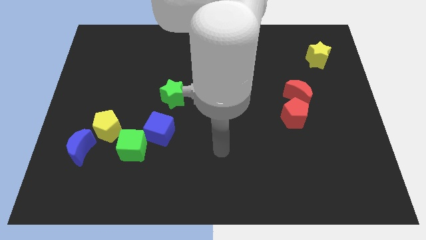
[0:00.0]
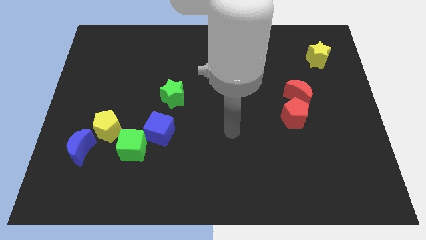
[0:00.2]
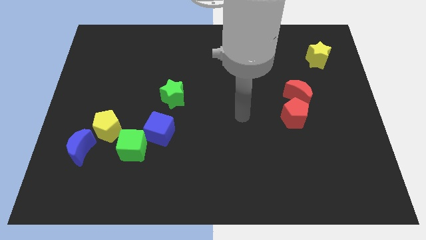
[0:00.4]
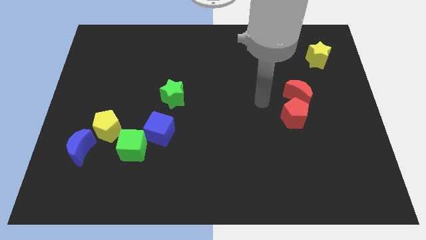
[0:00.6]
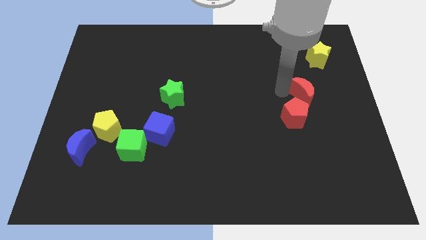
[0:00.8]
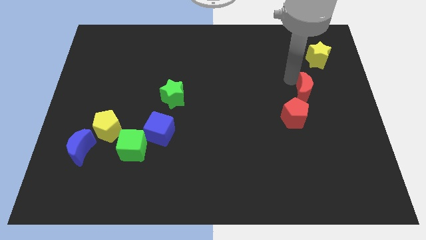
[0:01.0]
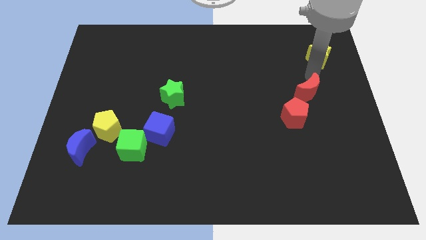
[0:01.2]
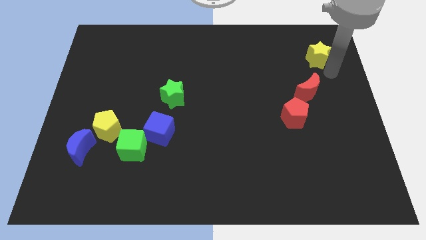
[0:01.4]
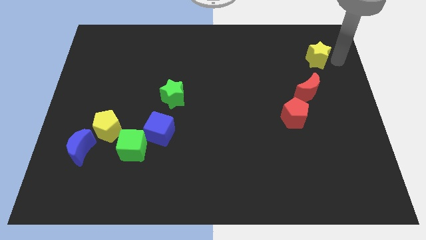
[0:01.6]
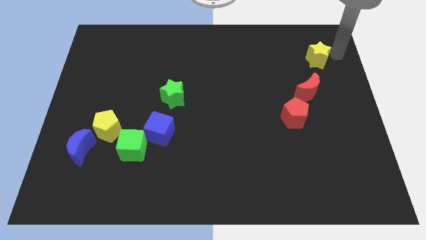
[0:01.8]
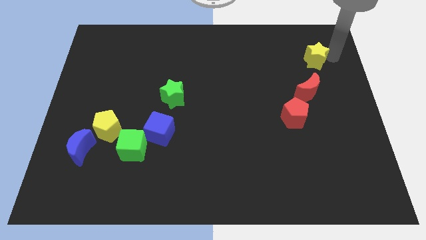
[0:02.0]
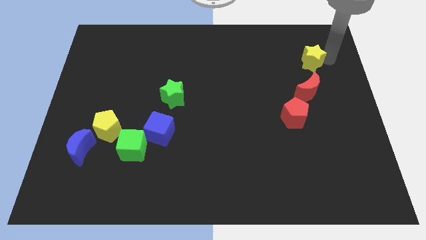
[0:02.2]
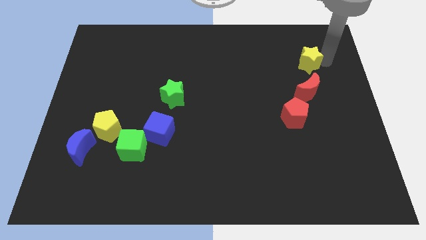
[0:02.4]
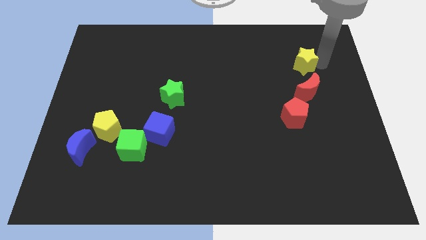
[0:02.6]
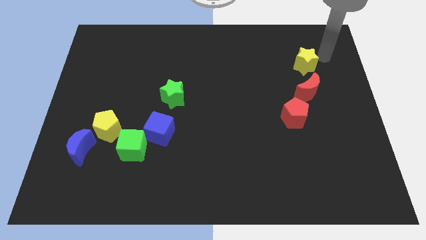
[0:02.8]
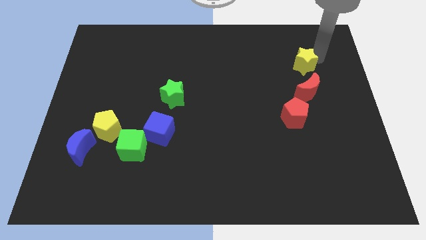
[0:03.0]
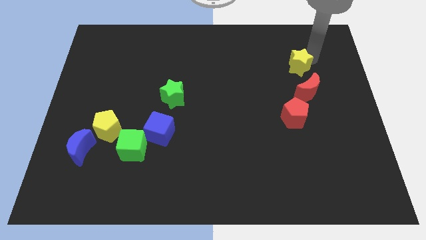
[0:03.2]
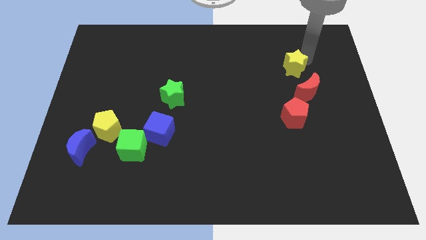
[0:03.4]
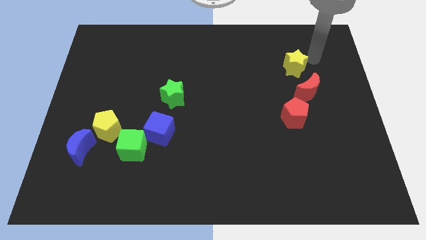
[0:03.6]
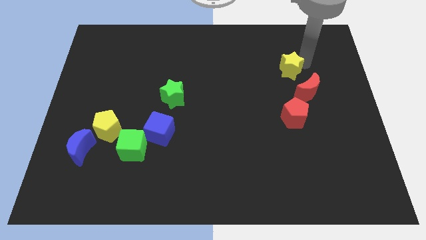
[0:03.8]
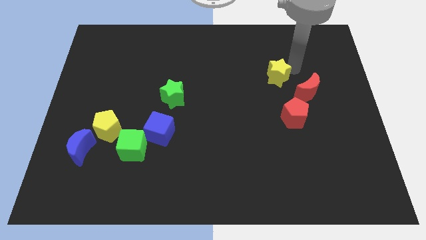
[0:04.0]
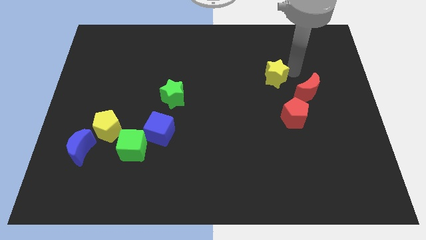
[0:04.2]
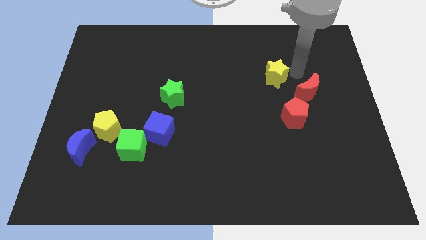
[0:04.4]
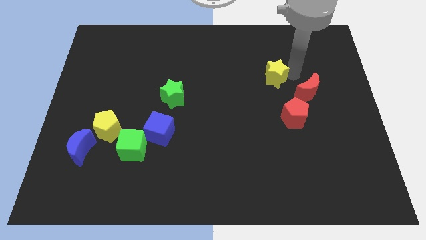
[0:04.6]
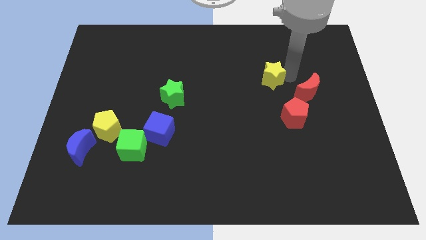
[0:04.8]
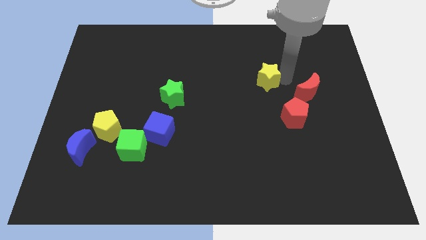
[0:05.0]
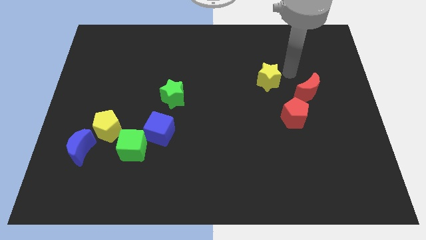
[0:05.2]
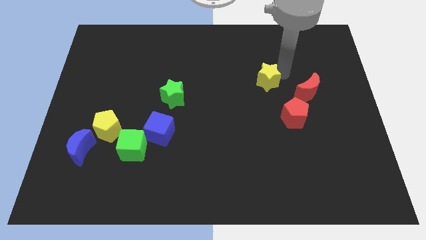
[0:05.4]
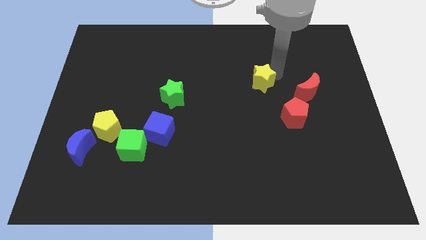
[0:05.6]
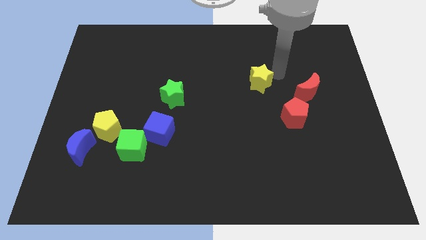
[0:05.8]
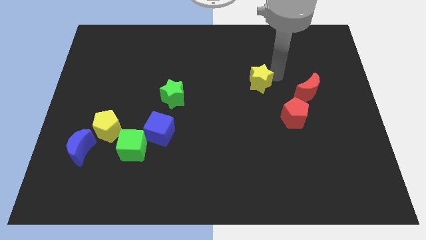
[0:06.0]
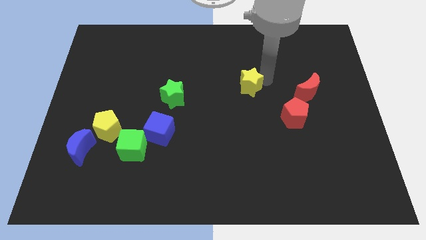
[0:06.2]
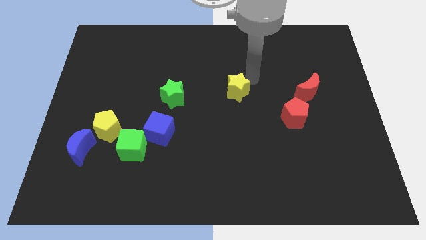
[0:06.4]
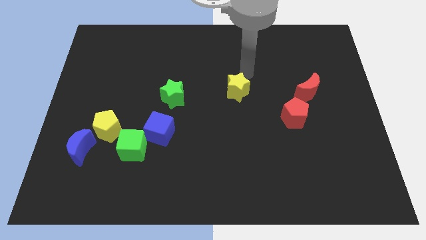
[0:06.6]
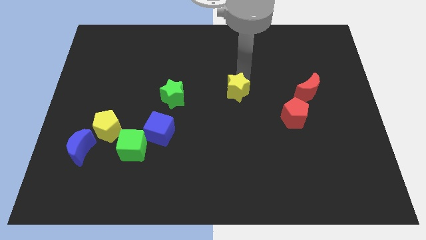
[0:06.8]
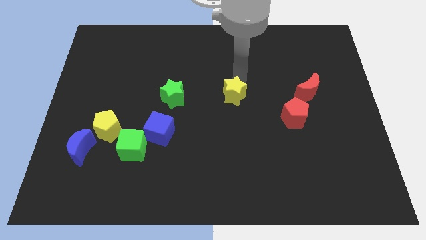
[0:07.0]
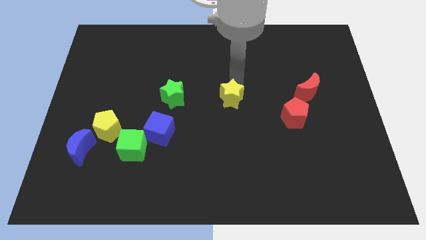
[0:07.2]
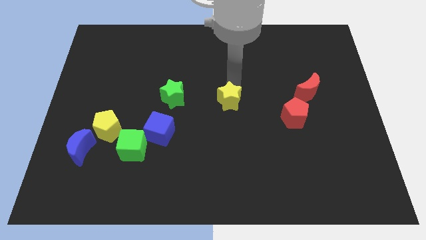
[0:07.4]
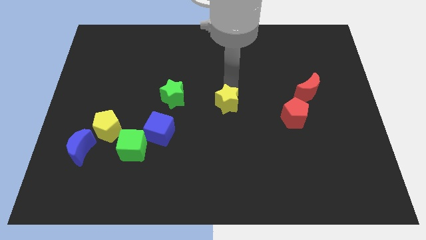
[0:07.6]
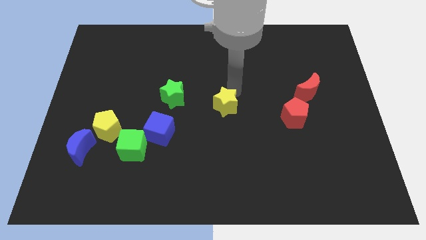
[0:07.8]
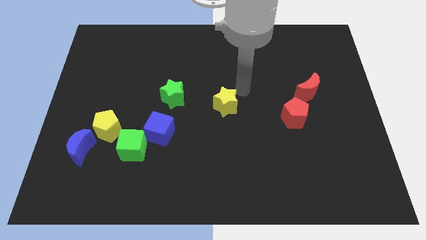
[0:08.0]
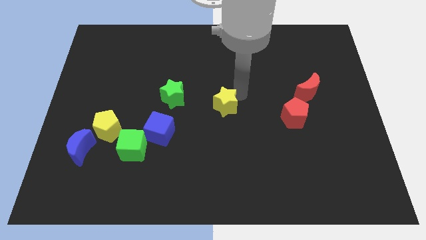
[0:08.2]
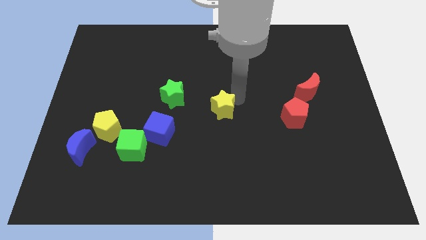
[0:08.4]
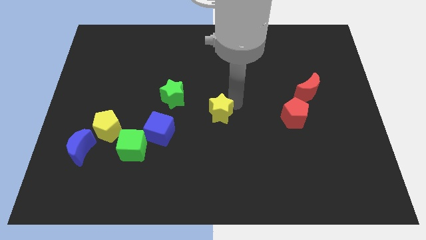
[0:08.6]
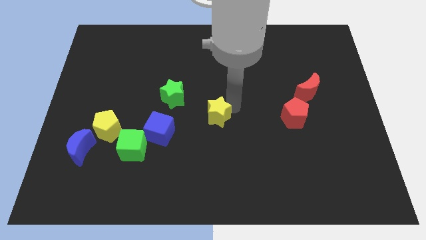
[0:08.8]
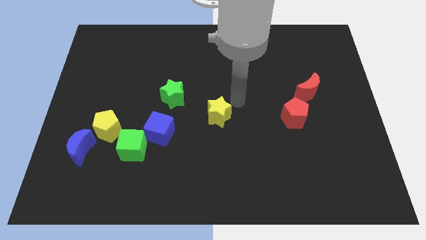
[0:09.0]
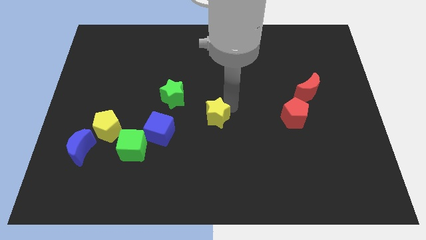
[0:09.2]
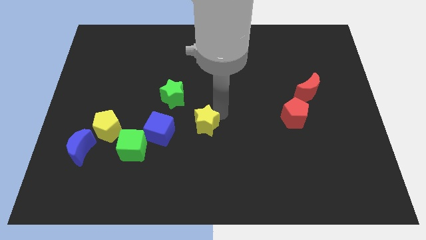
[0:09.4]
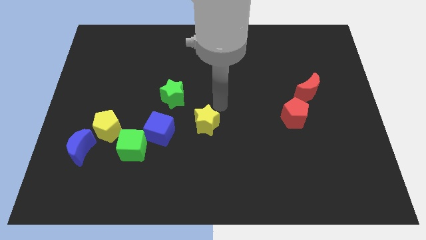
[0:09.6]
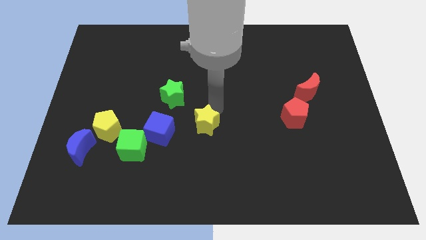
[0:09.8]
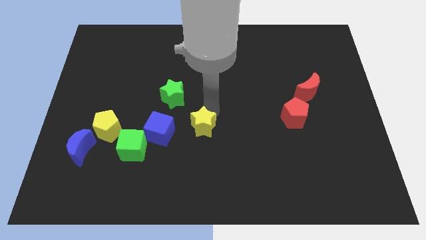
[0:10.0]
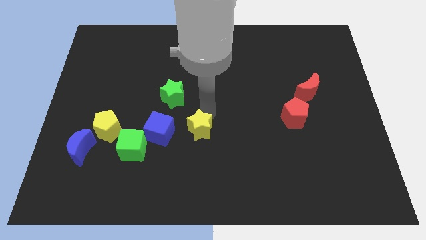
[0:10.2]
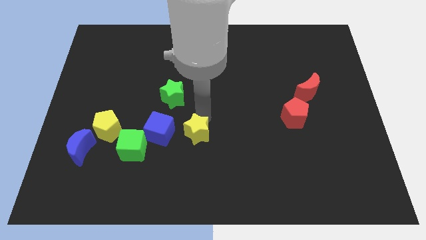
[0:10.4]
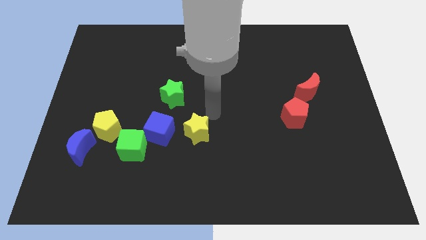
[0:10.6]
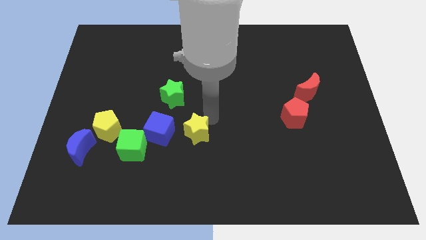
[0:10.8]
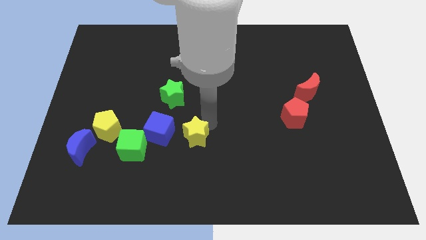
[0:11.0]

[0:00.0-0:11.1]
slide the yellow star to the bottom right of the blue cube

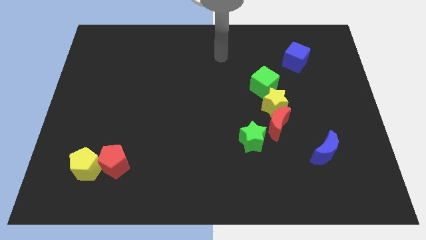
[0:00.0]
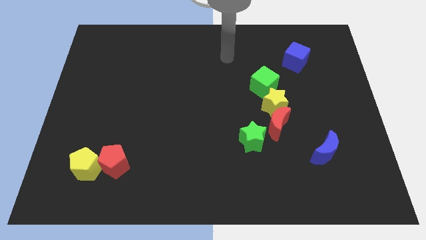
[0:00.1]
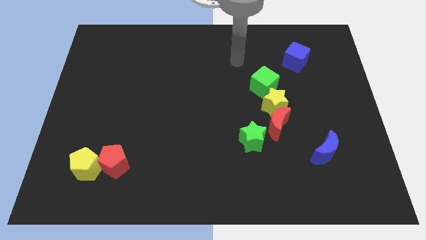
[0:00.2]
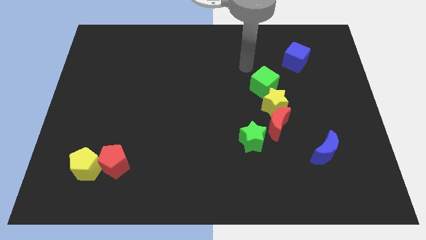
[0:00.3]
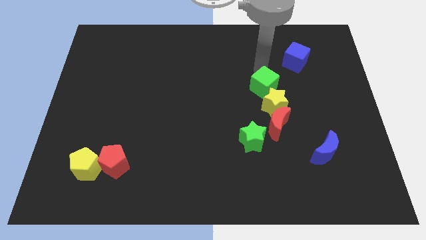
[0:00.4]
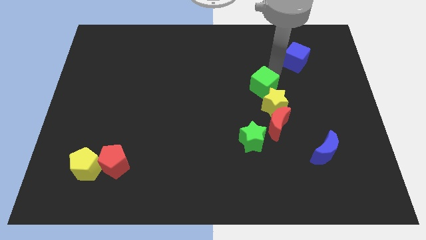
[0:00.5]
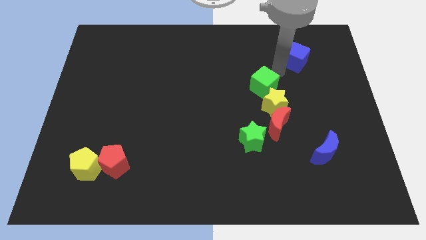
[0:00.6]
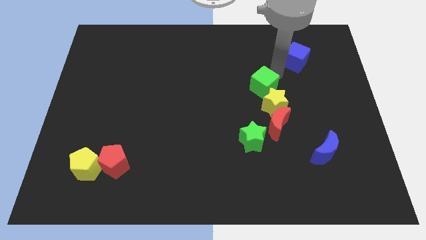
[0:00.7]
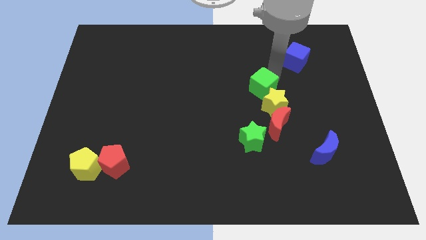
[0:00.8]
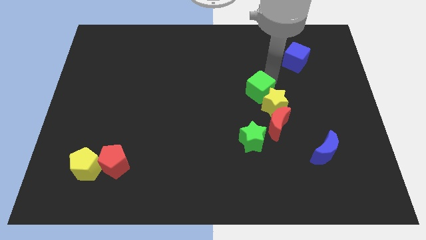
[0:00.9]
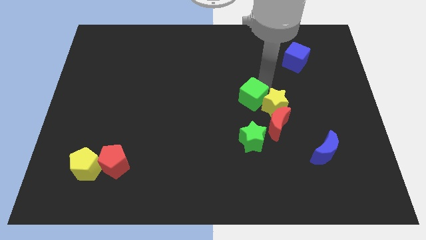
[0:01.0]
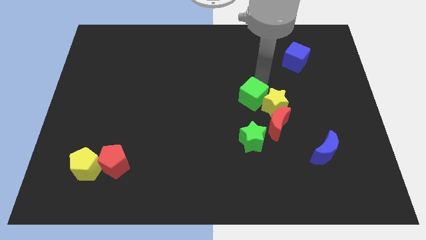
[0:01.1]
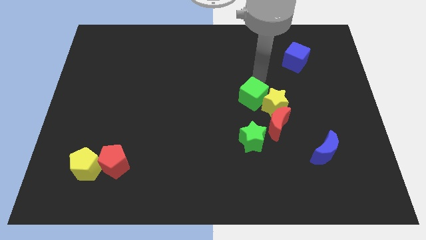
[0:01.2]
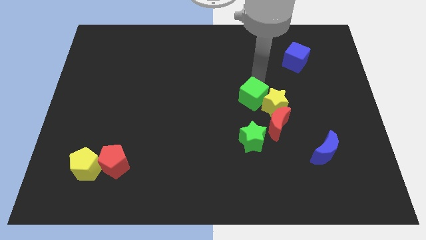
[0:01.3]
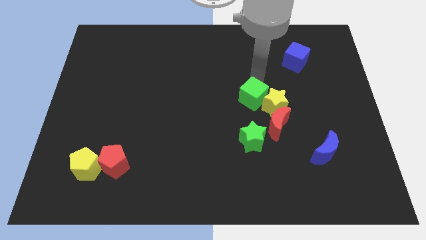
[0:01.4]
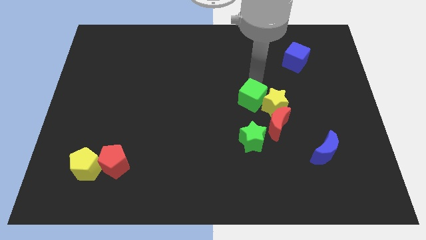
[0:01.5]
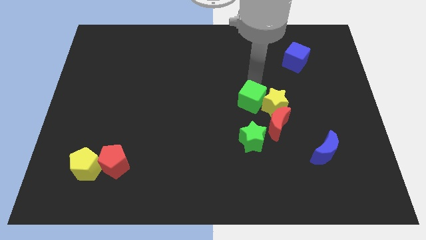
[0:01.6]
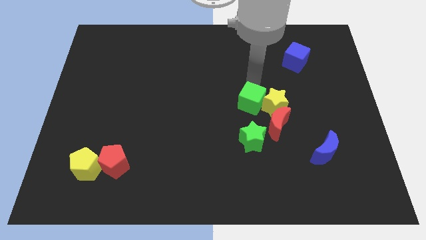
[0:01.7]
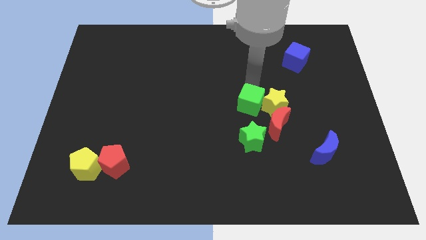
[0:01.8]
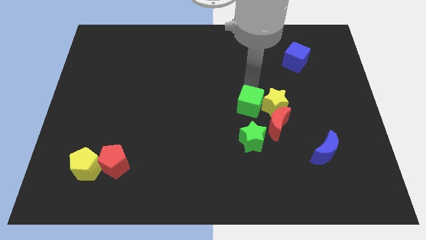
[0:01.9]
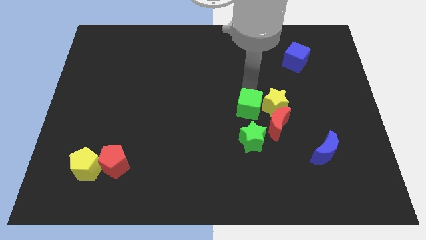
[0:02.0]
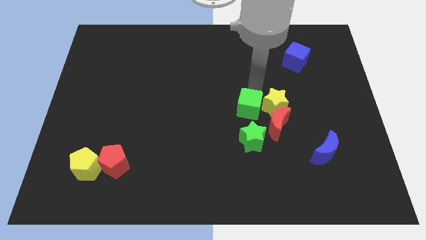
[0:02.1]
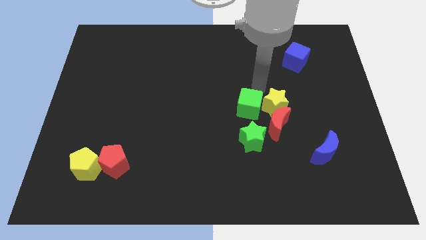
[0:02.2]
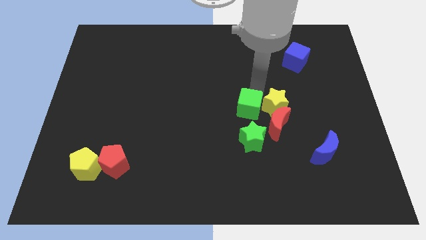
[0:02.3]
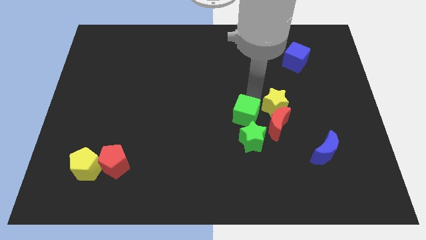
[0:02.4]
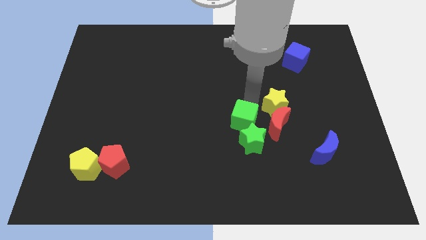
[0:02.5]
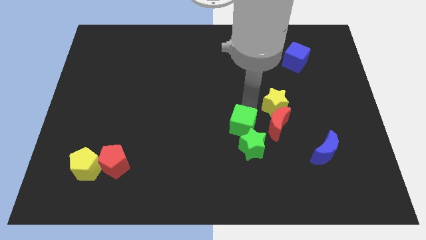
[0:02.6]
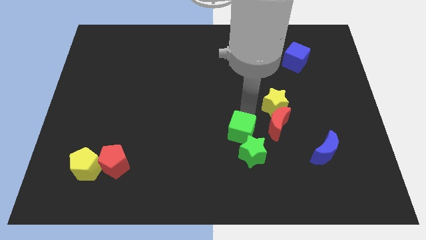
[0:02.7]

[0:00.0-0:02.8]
push the green cube diagonally down and to the left of the red moon
